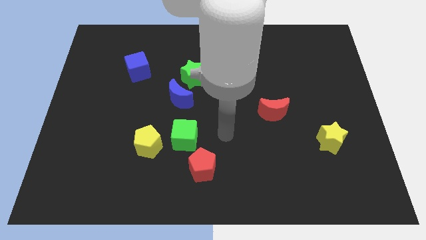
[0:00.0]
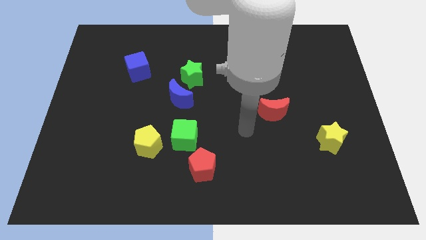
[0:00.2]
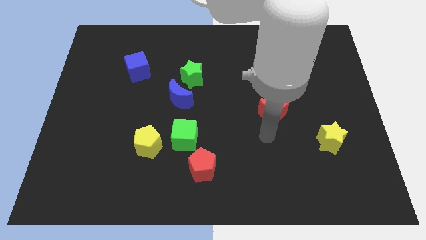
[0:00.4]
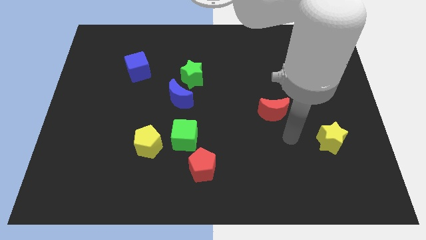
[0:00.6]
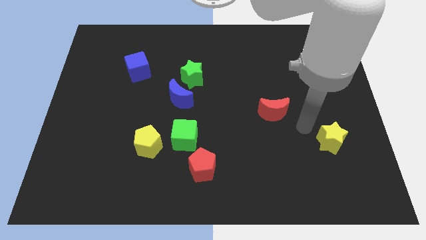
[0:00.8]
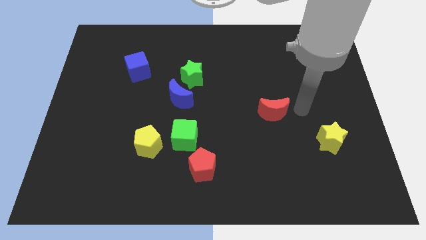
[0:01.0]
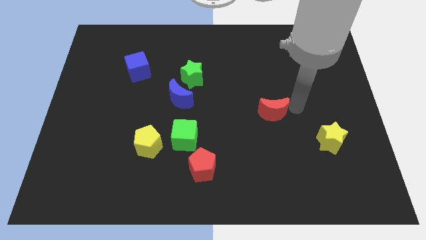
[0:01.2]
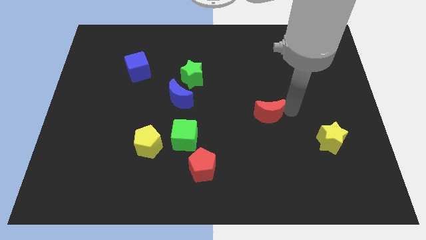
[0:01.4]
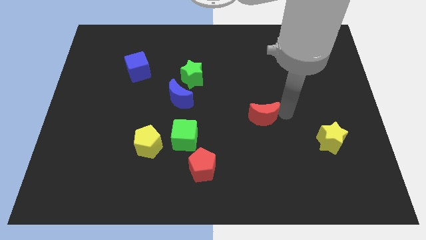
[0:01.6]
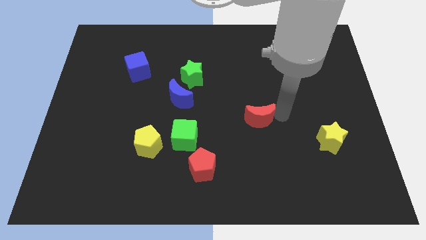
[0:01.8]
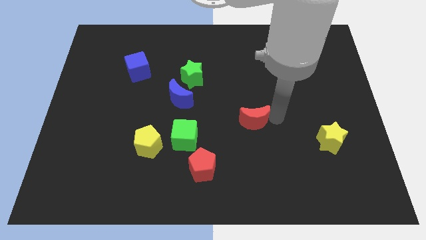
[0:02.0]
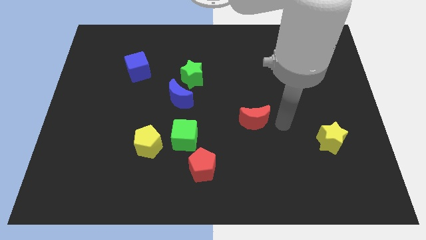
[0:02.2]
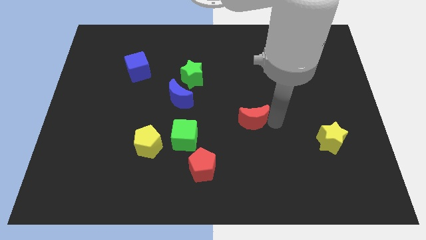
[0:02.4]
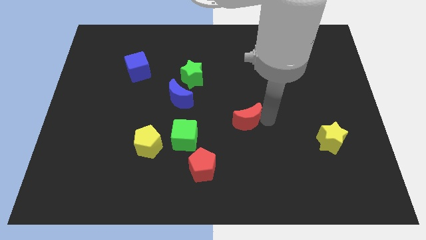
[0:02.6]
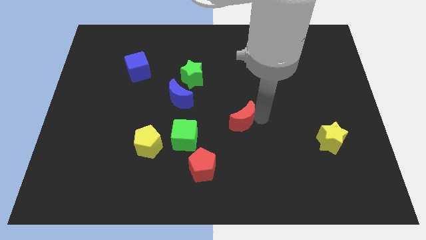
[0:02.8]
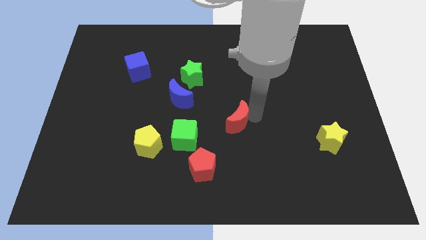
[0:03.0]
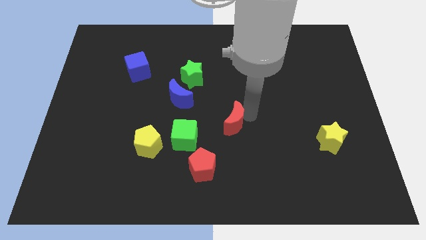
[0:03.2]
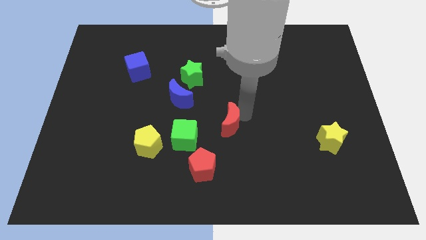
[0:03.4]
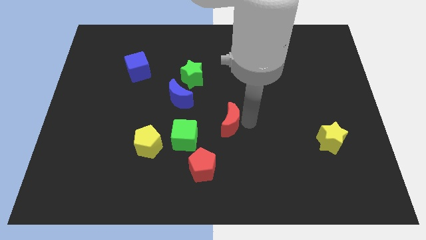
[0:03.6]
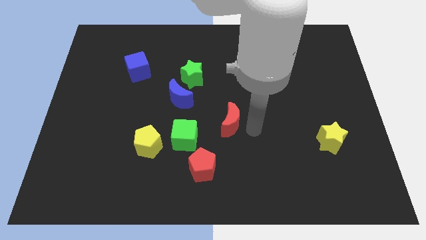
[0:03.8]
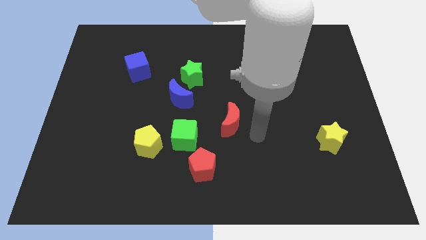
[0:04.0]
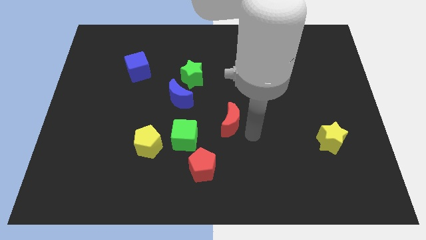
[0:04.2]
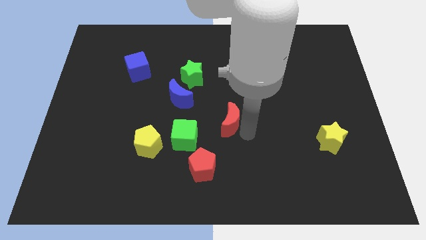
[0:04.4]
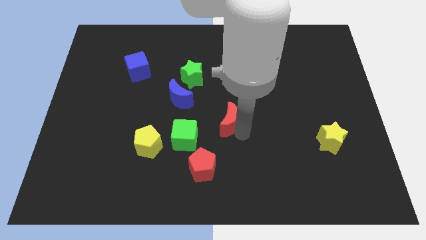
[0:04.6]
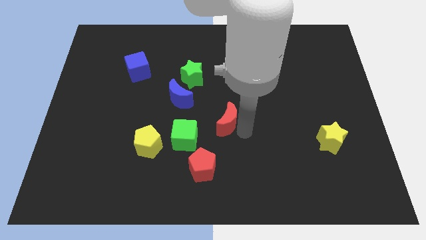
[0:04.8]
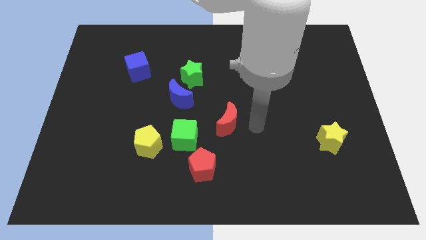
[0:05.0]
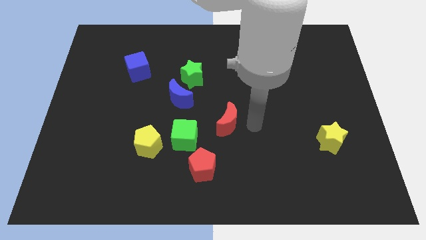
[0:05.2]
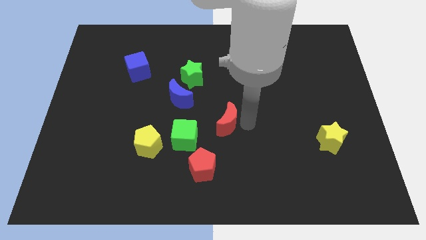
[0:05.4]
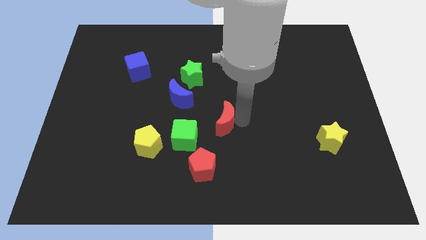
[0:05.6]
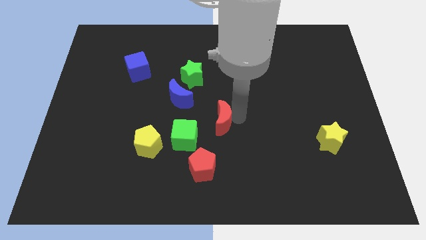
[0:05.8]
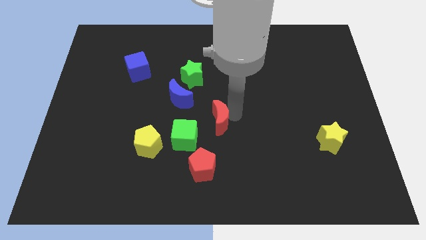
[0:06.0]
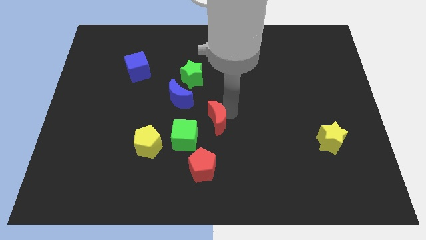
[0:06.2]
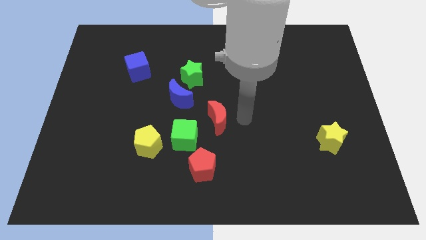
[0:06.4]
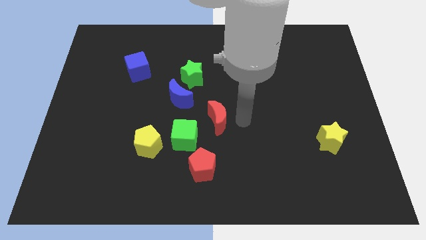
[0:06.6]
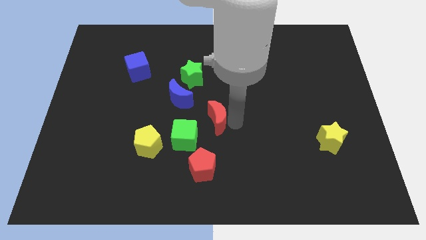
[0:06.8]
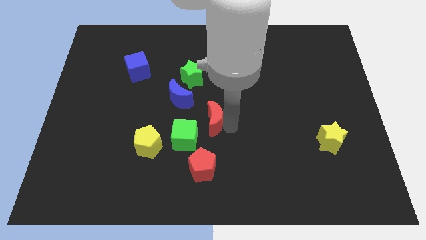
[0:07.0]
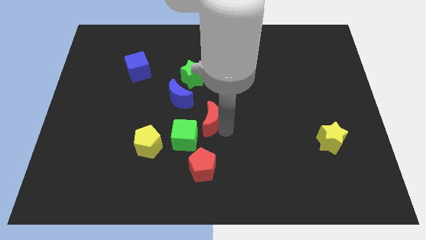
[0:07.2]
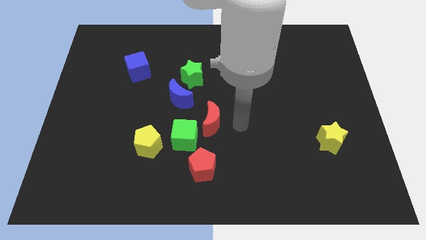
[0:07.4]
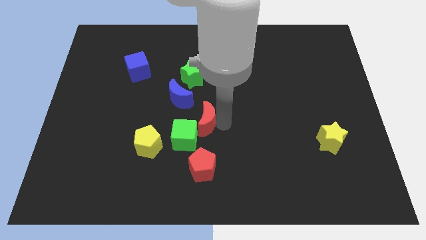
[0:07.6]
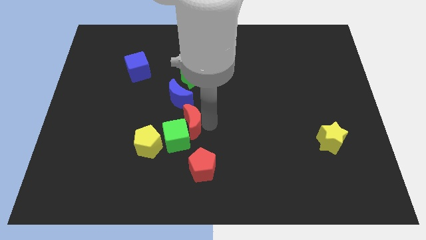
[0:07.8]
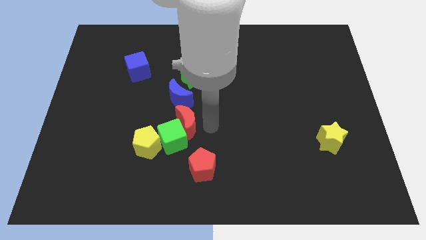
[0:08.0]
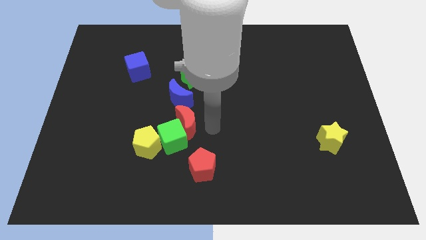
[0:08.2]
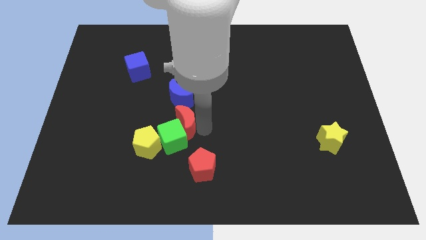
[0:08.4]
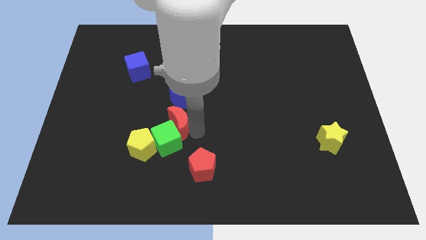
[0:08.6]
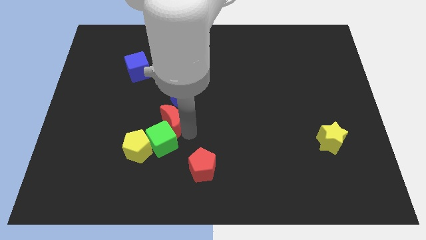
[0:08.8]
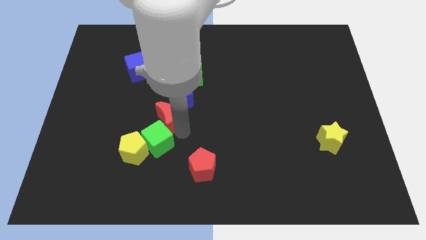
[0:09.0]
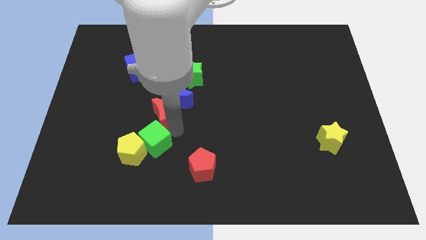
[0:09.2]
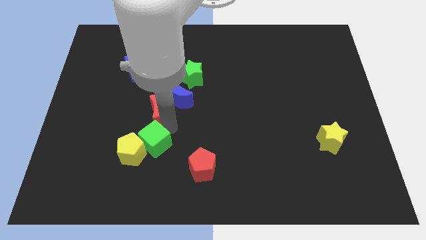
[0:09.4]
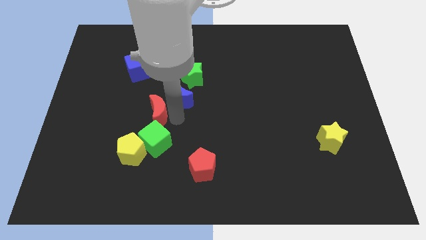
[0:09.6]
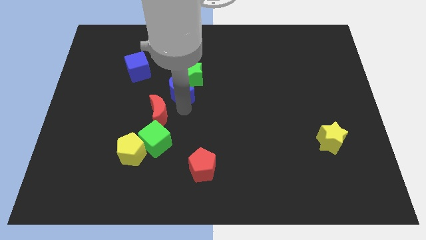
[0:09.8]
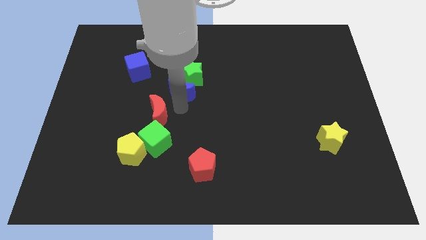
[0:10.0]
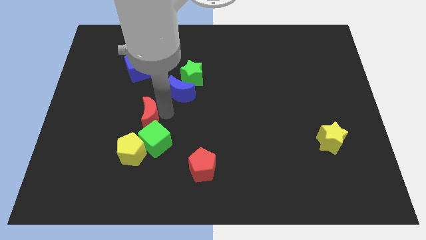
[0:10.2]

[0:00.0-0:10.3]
put the red moon diagonally up and to the left of the green cube

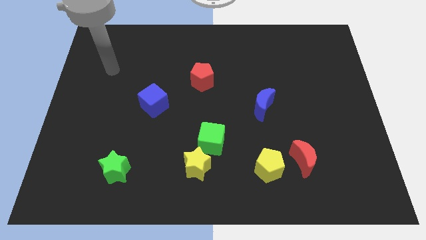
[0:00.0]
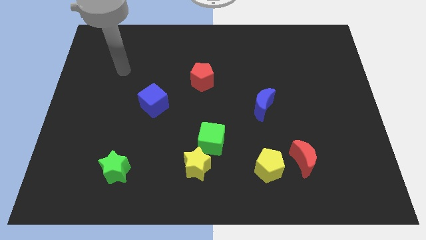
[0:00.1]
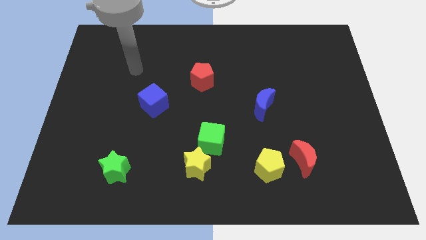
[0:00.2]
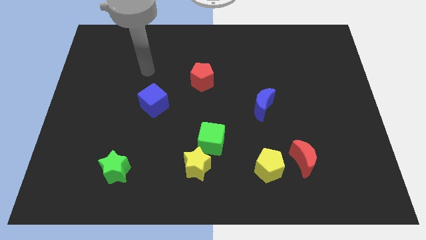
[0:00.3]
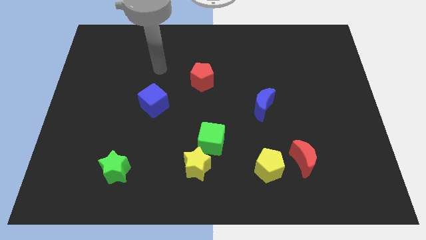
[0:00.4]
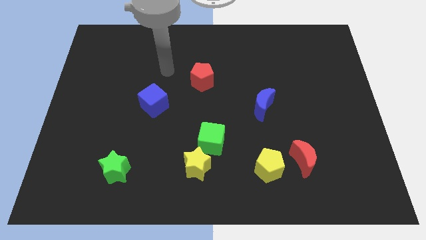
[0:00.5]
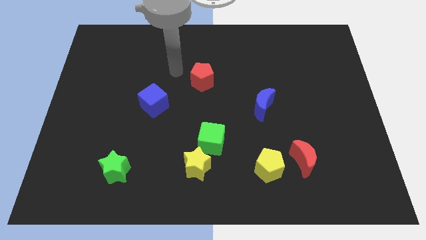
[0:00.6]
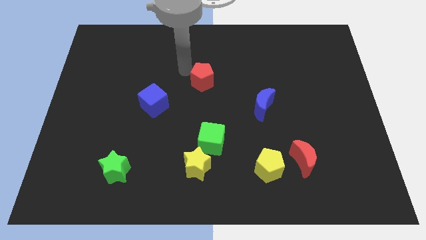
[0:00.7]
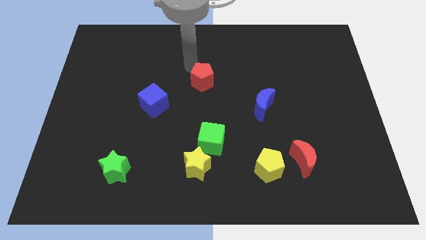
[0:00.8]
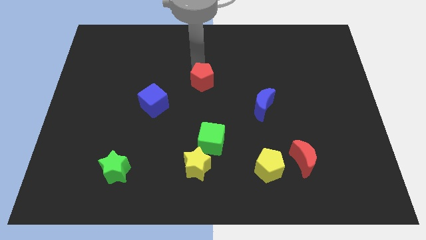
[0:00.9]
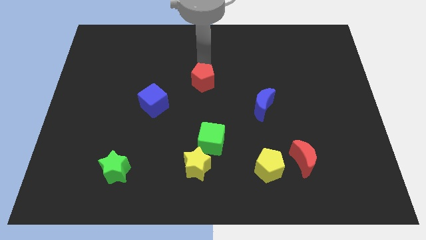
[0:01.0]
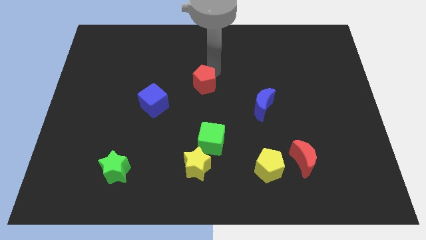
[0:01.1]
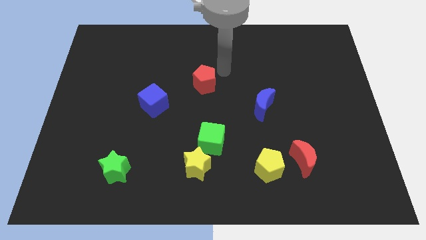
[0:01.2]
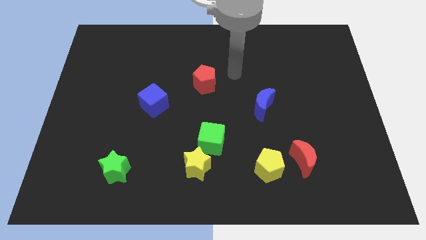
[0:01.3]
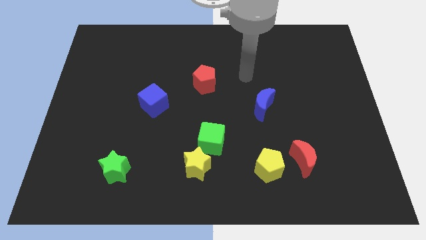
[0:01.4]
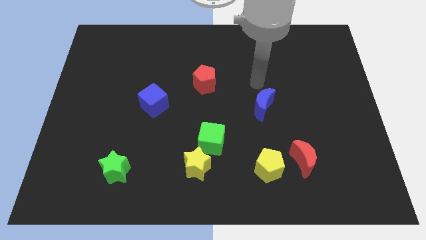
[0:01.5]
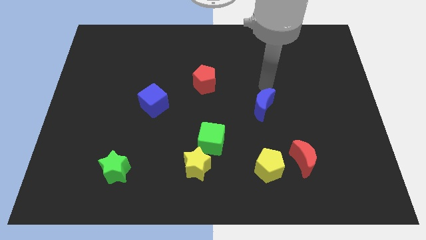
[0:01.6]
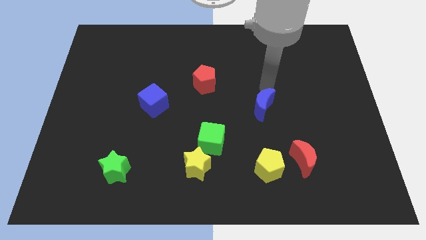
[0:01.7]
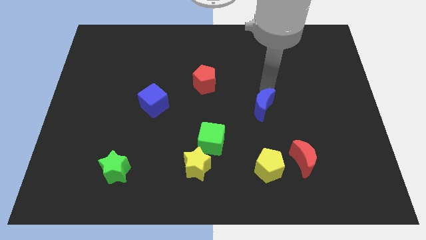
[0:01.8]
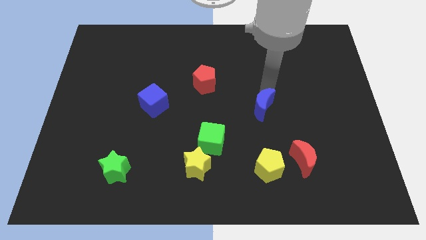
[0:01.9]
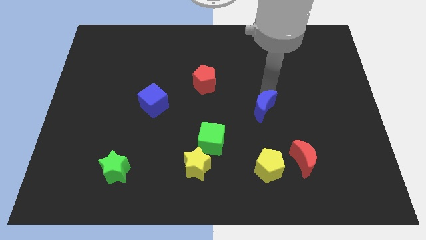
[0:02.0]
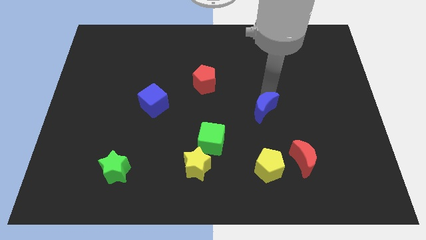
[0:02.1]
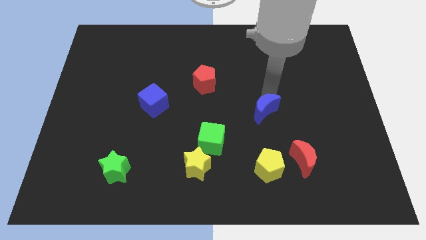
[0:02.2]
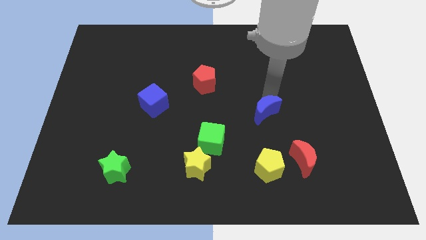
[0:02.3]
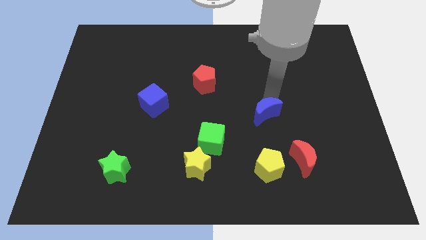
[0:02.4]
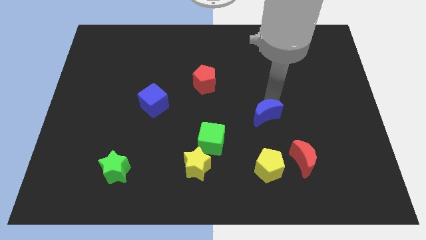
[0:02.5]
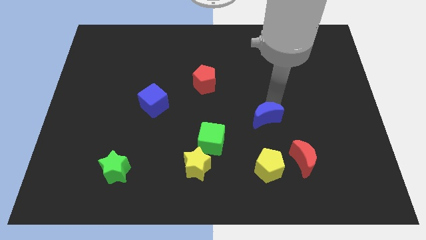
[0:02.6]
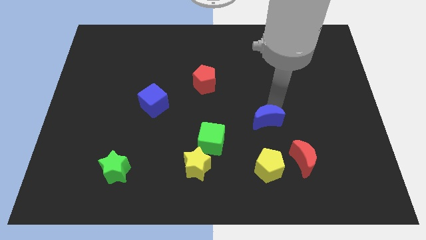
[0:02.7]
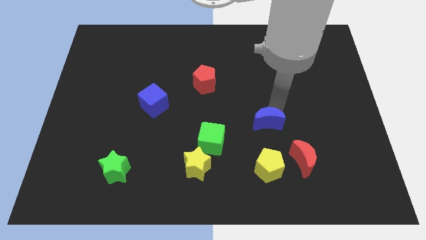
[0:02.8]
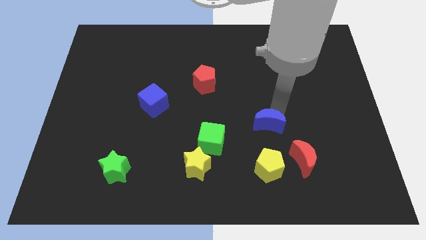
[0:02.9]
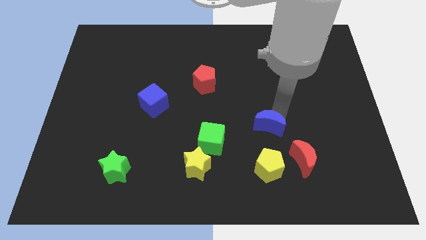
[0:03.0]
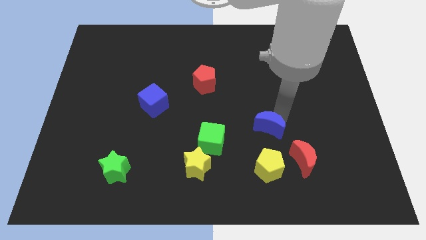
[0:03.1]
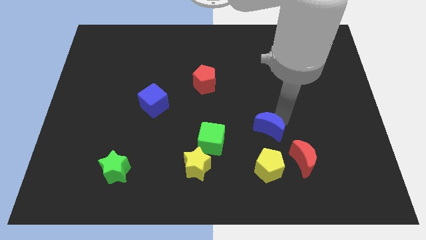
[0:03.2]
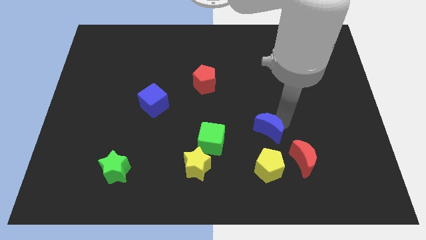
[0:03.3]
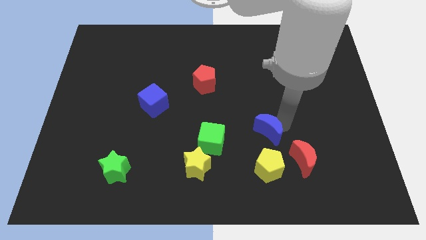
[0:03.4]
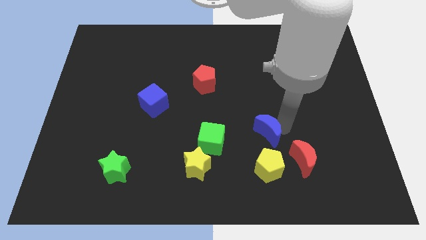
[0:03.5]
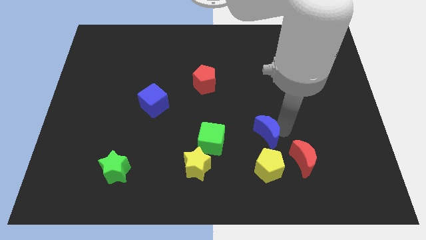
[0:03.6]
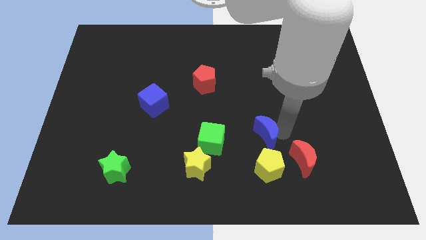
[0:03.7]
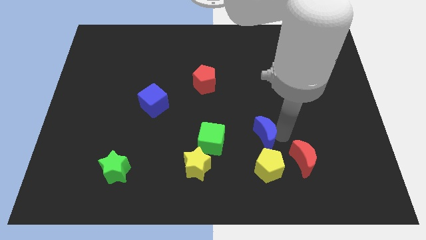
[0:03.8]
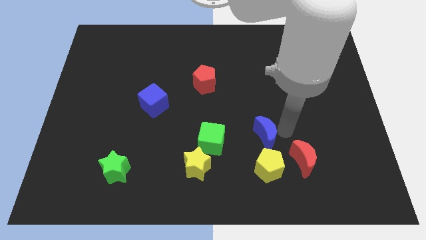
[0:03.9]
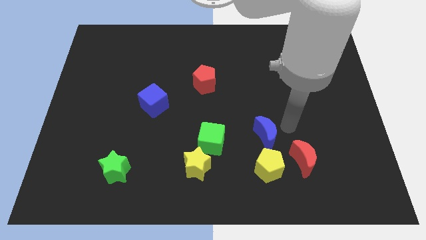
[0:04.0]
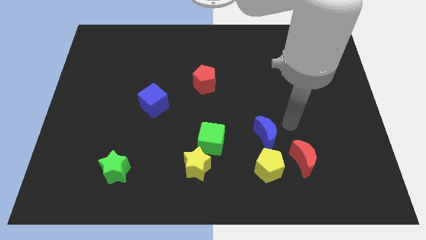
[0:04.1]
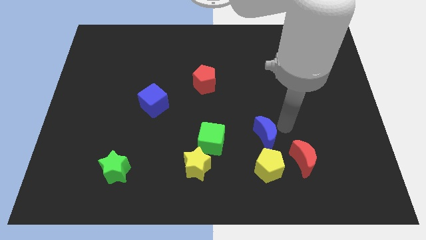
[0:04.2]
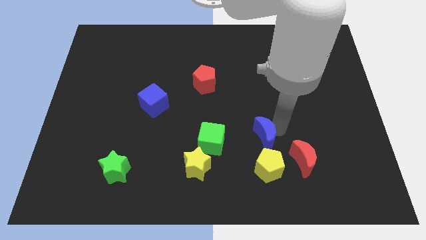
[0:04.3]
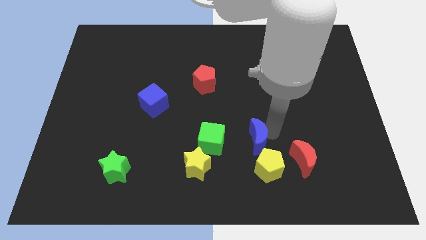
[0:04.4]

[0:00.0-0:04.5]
slide the blue moon to the top left of the yellow pentagon
